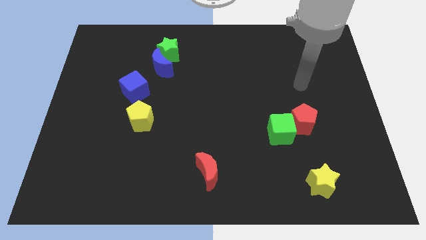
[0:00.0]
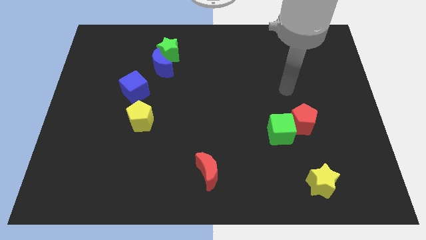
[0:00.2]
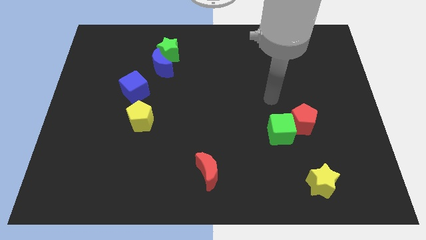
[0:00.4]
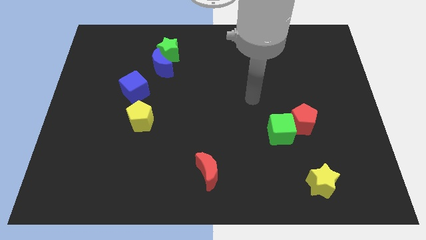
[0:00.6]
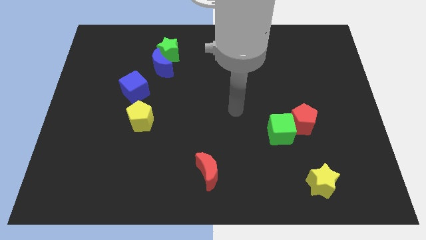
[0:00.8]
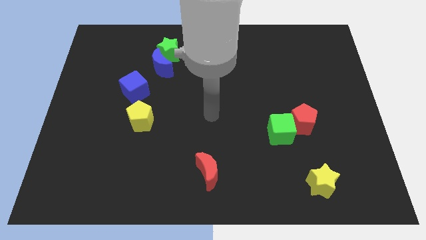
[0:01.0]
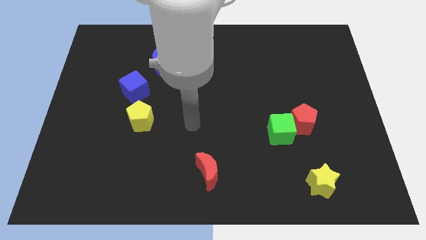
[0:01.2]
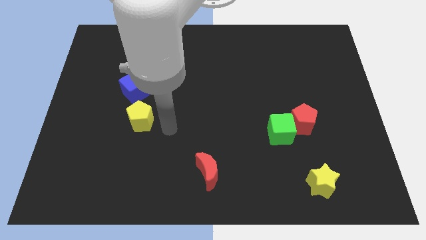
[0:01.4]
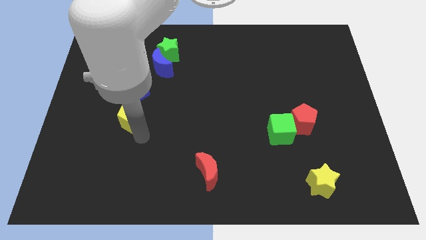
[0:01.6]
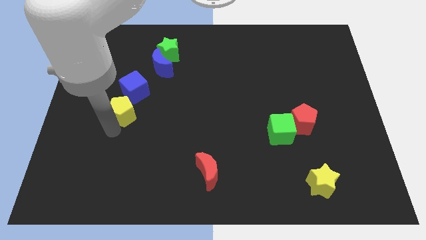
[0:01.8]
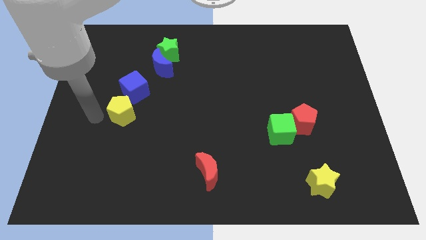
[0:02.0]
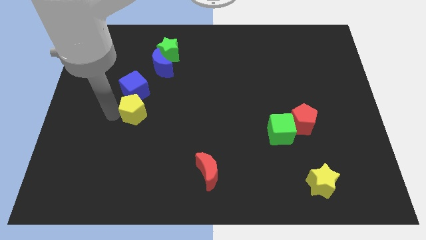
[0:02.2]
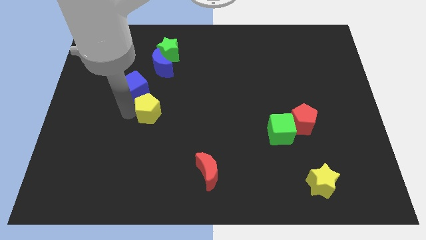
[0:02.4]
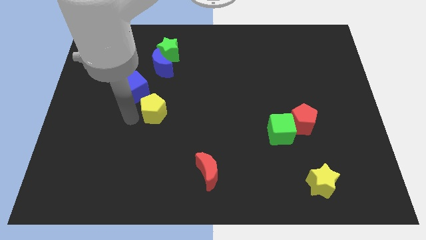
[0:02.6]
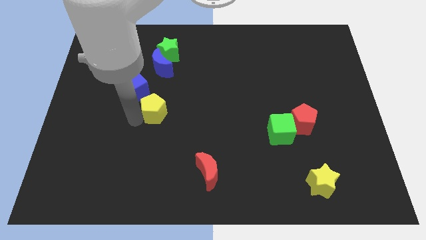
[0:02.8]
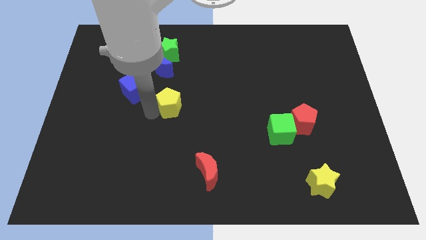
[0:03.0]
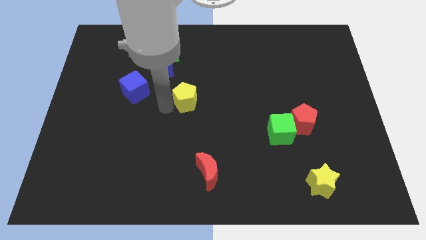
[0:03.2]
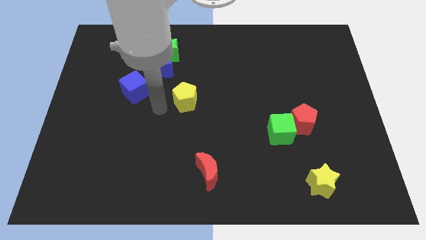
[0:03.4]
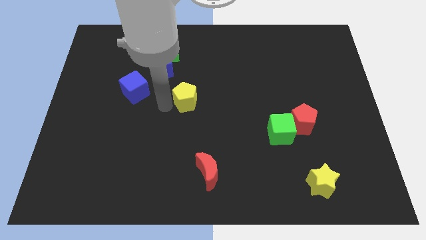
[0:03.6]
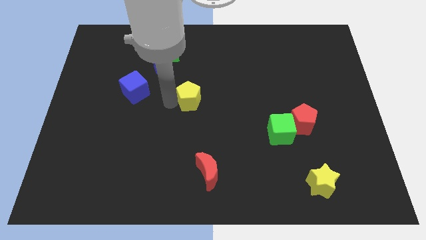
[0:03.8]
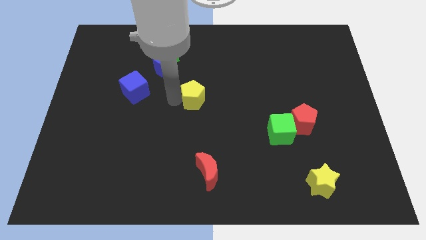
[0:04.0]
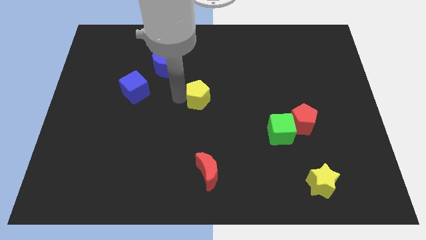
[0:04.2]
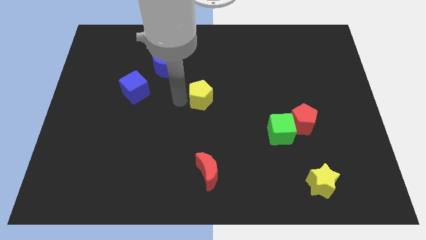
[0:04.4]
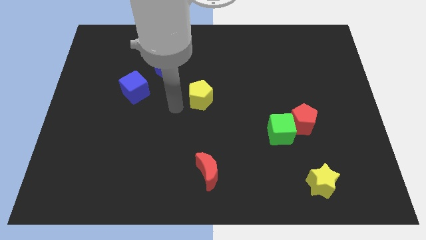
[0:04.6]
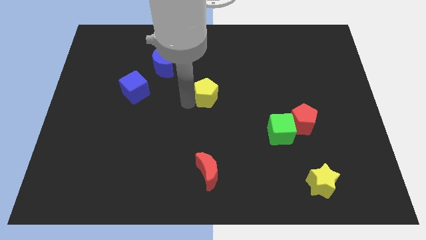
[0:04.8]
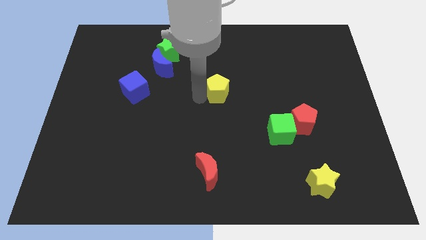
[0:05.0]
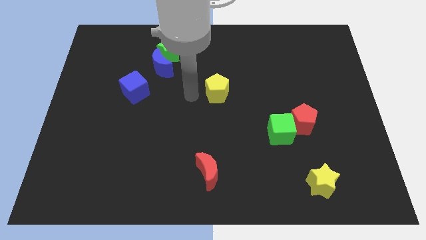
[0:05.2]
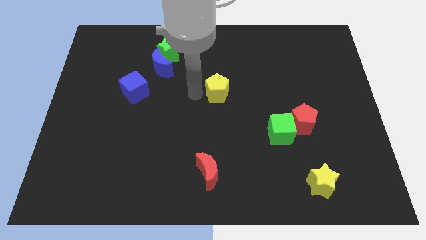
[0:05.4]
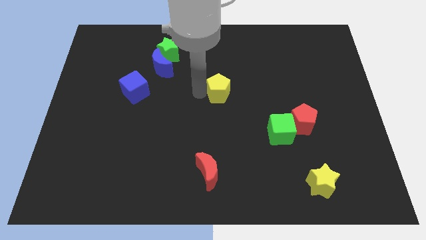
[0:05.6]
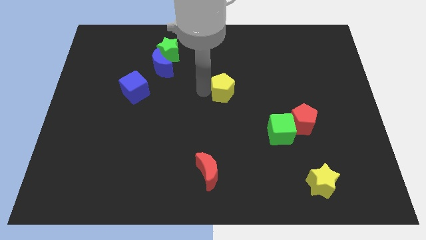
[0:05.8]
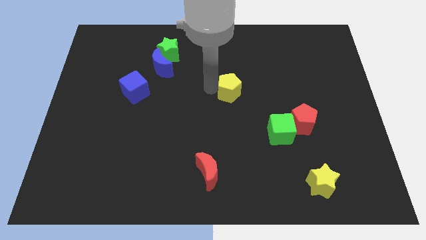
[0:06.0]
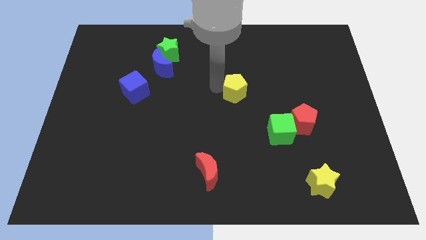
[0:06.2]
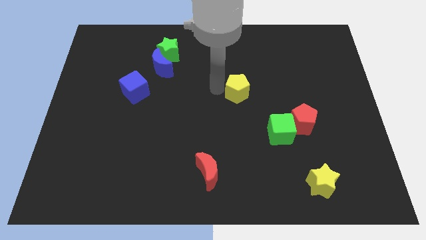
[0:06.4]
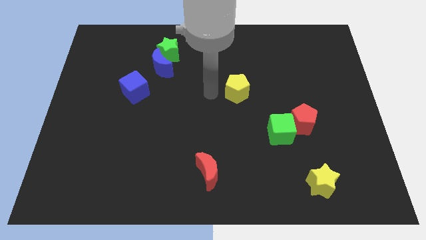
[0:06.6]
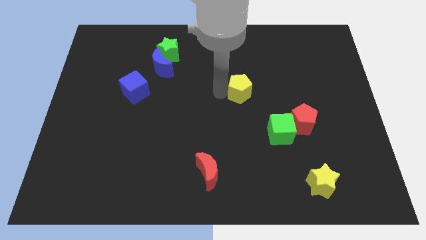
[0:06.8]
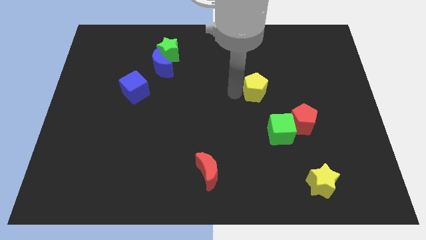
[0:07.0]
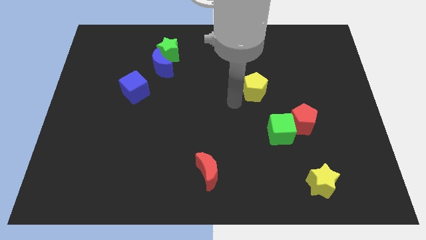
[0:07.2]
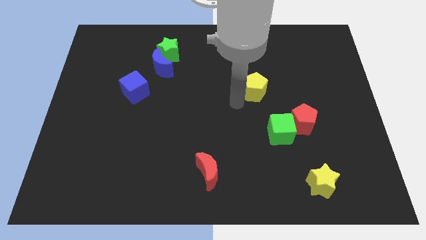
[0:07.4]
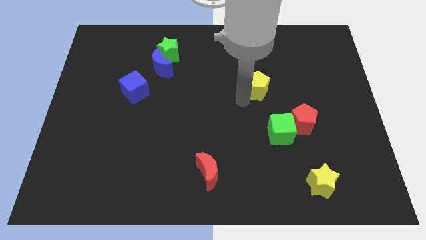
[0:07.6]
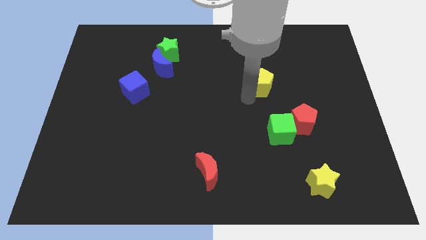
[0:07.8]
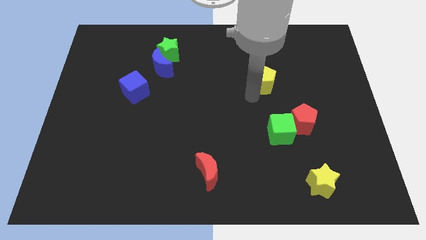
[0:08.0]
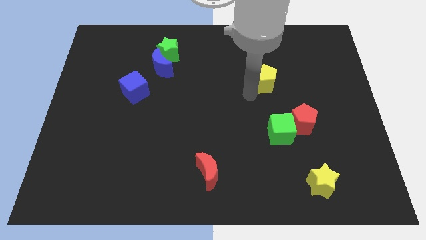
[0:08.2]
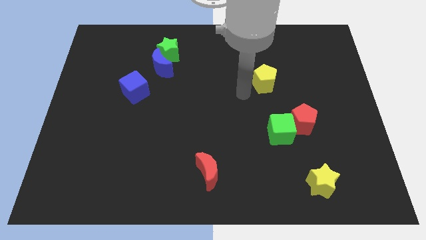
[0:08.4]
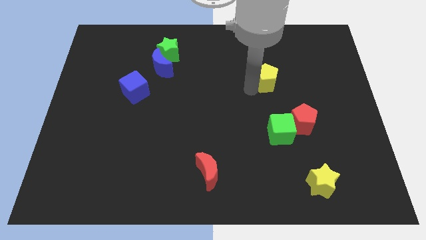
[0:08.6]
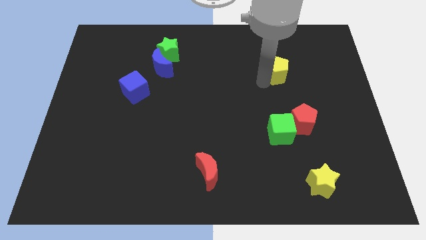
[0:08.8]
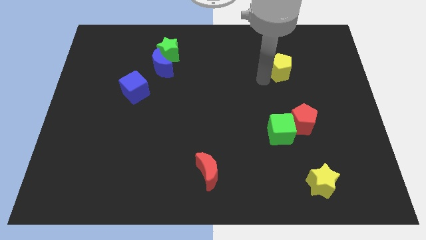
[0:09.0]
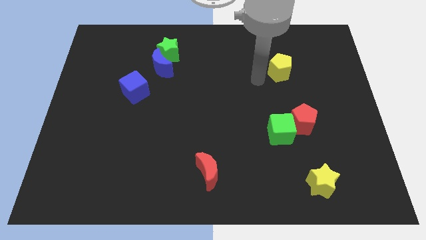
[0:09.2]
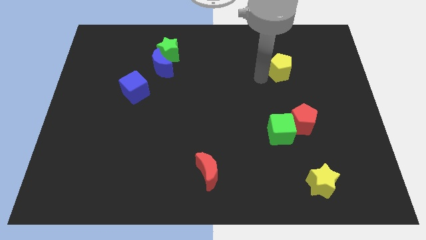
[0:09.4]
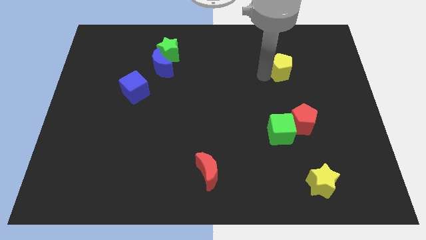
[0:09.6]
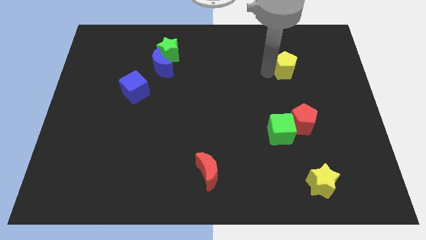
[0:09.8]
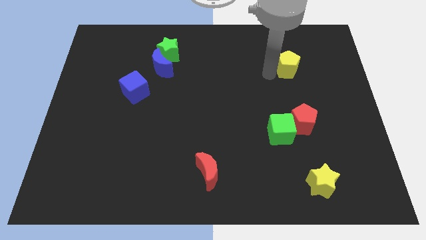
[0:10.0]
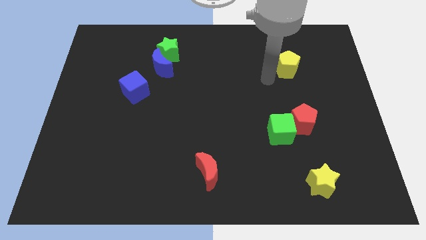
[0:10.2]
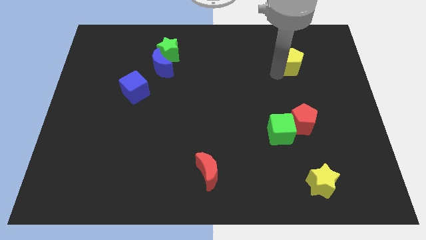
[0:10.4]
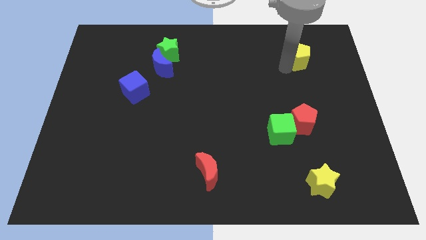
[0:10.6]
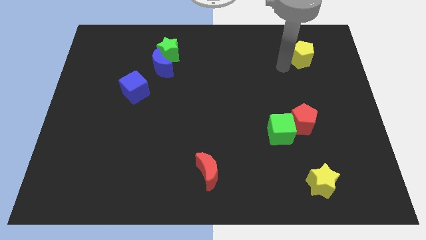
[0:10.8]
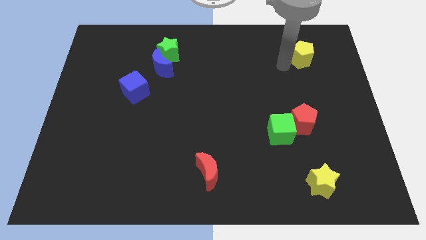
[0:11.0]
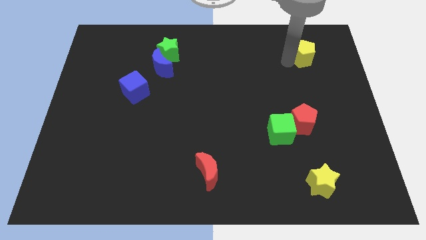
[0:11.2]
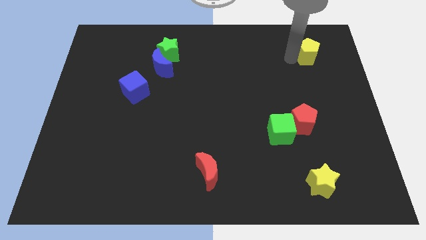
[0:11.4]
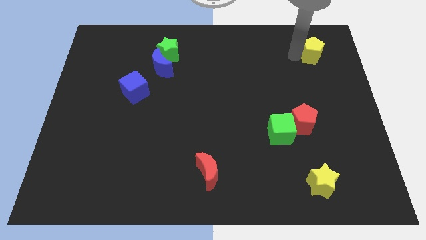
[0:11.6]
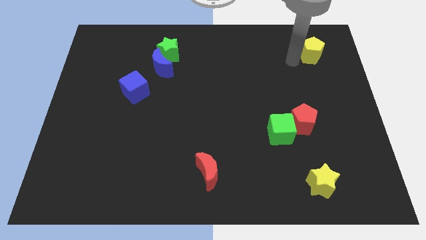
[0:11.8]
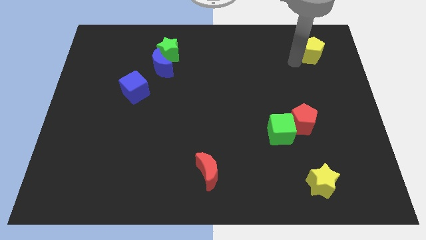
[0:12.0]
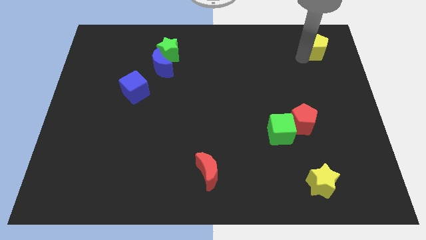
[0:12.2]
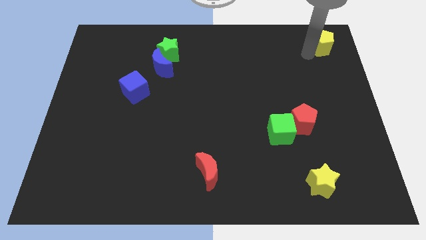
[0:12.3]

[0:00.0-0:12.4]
slide the yellow pentagon to the upper right corner
